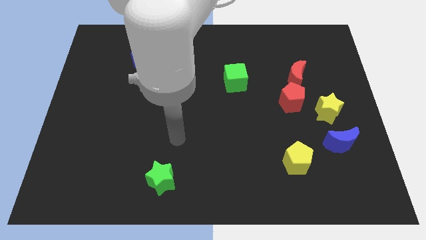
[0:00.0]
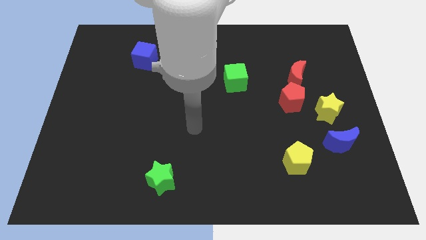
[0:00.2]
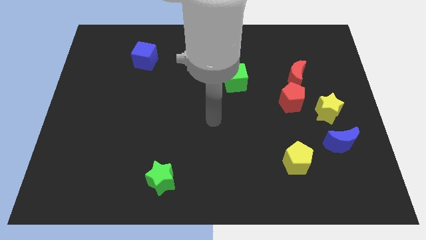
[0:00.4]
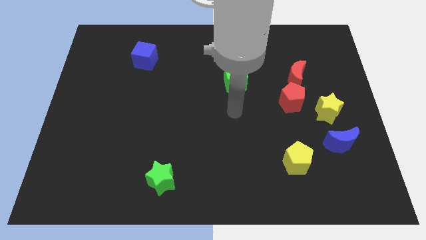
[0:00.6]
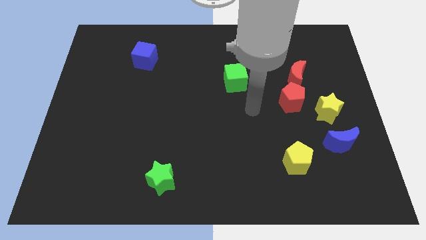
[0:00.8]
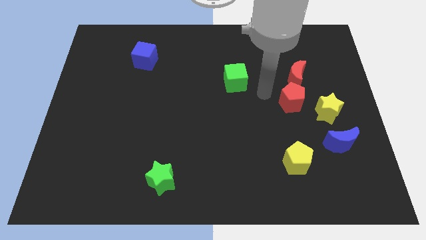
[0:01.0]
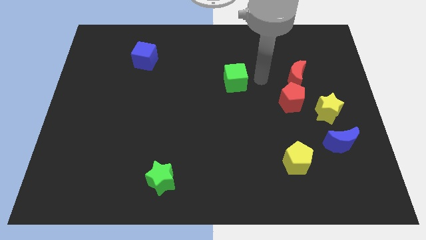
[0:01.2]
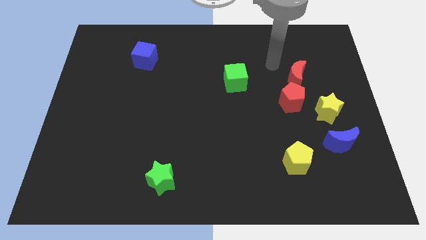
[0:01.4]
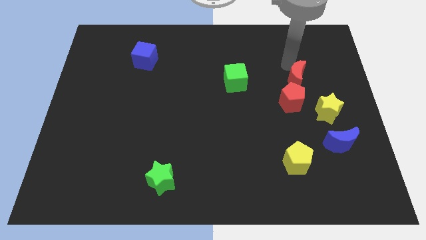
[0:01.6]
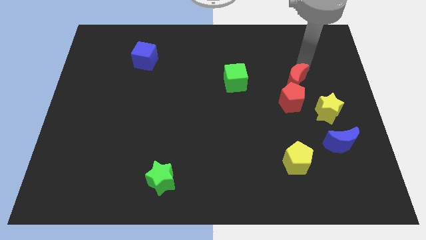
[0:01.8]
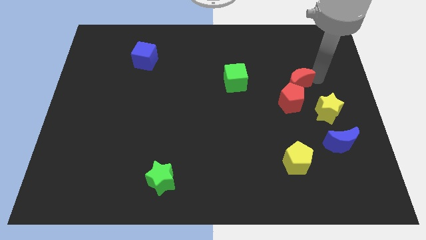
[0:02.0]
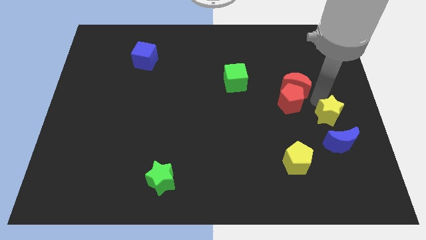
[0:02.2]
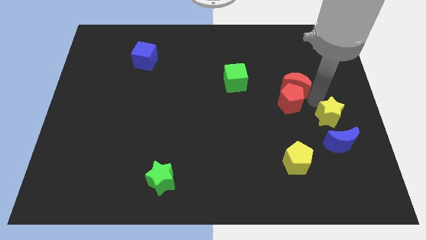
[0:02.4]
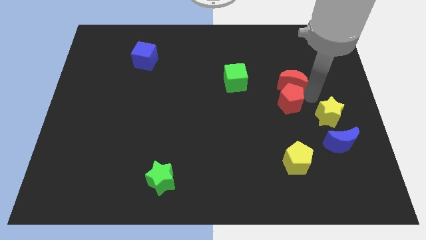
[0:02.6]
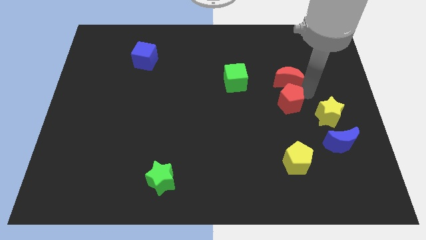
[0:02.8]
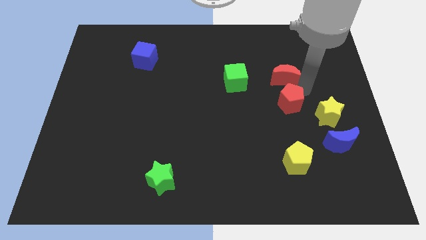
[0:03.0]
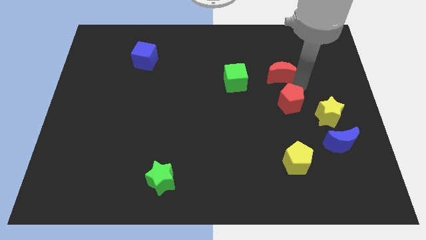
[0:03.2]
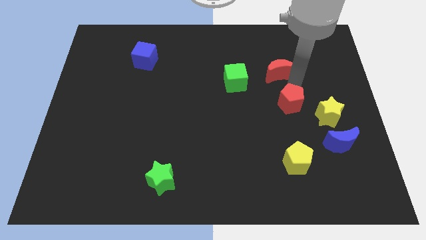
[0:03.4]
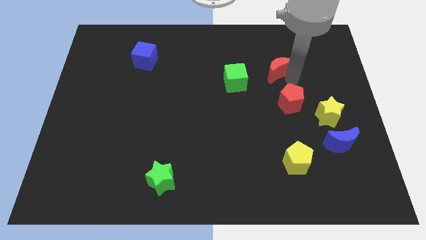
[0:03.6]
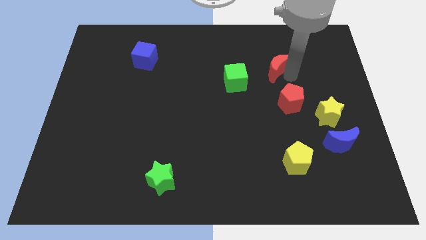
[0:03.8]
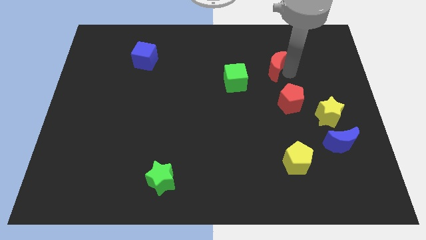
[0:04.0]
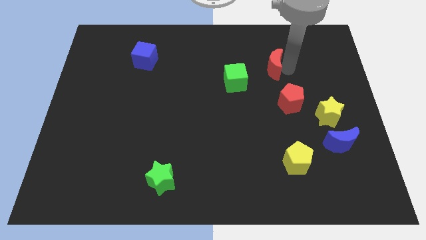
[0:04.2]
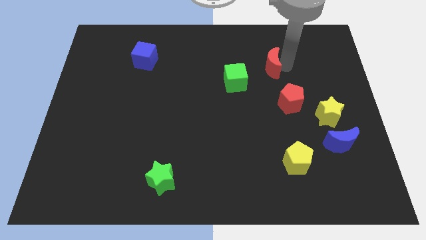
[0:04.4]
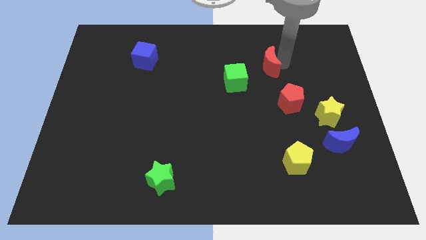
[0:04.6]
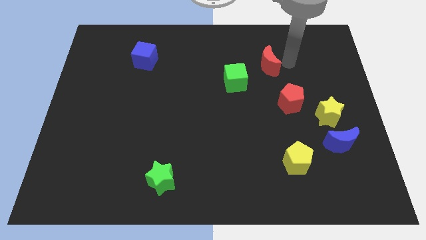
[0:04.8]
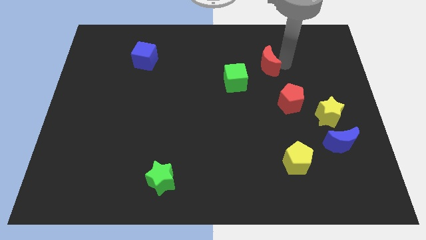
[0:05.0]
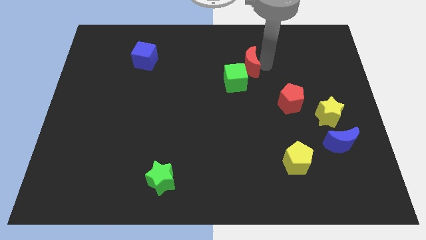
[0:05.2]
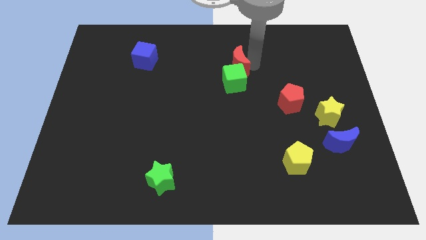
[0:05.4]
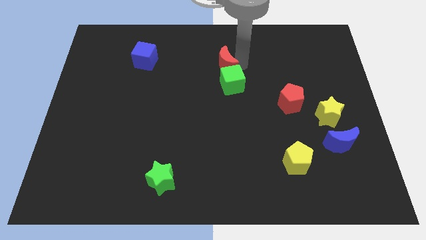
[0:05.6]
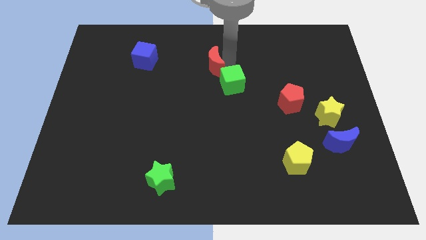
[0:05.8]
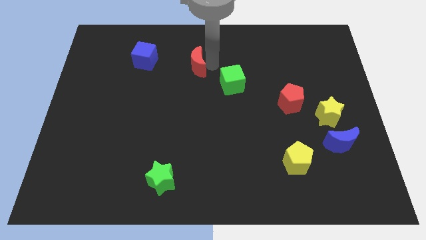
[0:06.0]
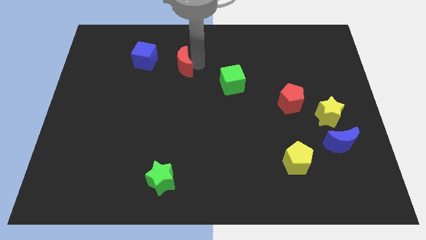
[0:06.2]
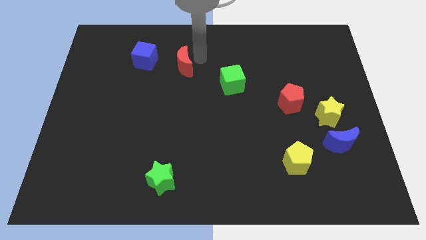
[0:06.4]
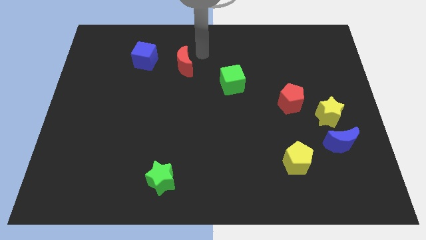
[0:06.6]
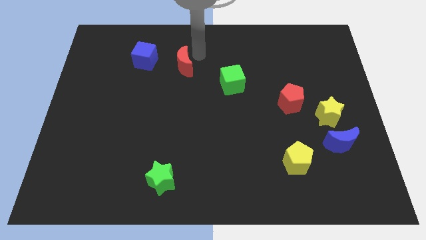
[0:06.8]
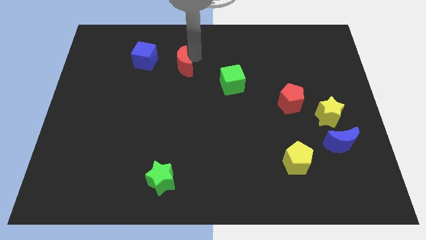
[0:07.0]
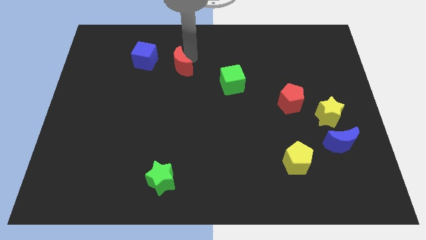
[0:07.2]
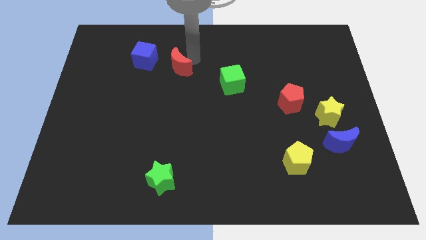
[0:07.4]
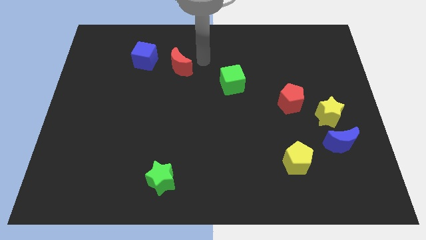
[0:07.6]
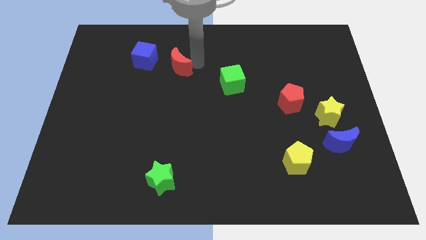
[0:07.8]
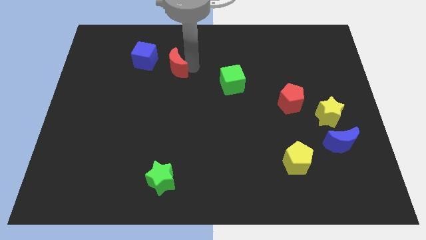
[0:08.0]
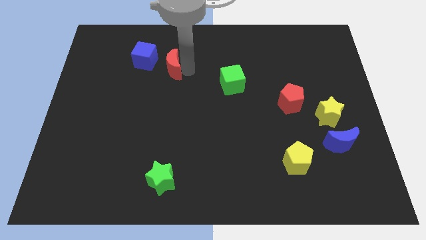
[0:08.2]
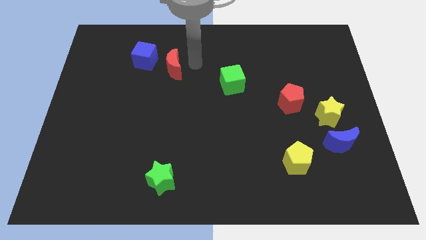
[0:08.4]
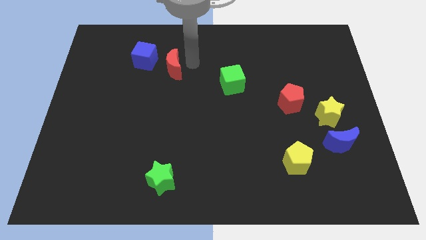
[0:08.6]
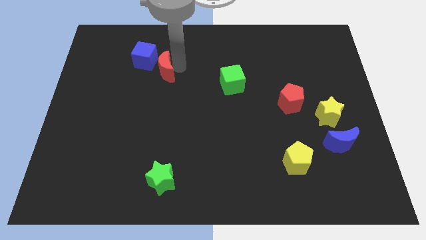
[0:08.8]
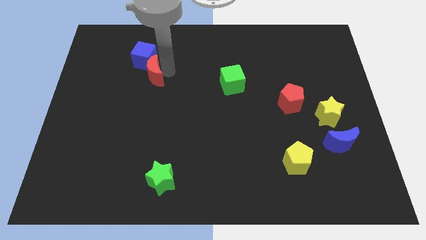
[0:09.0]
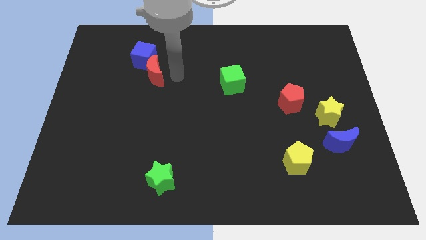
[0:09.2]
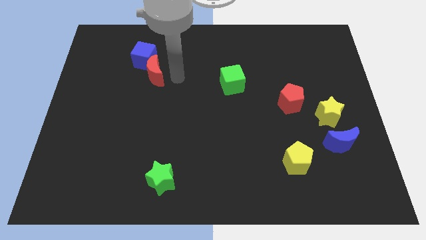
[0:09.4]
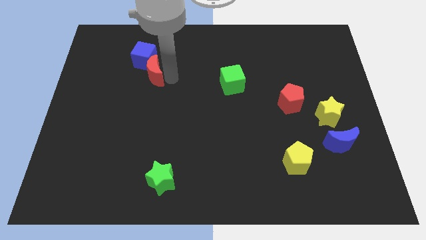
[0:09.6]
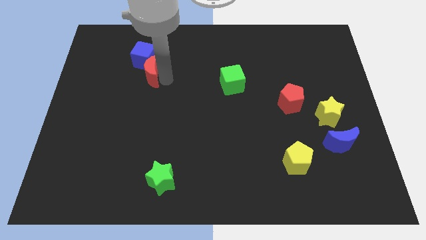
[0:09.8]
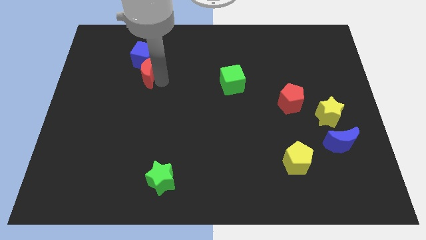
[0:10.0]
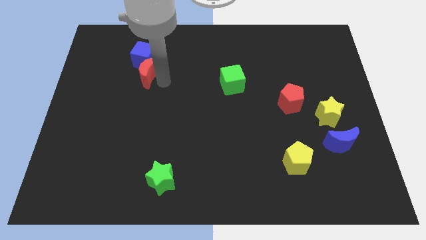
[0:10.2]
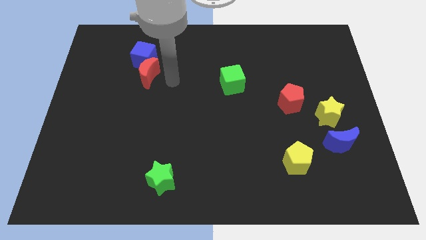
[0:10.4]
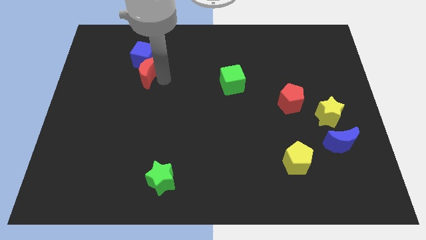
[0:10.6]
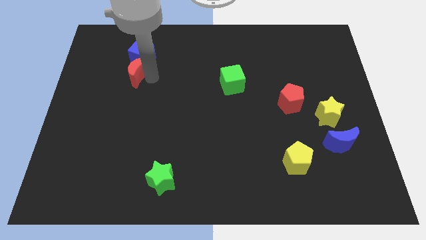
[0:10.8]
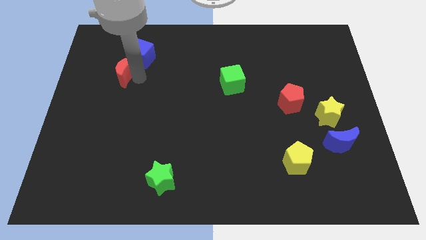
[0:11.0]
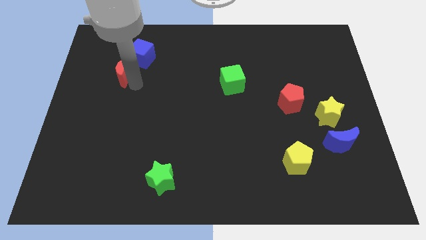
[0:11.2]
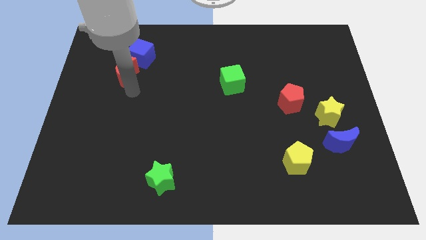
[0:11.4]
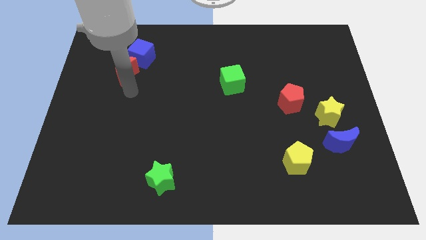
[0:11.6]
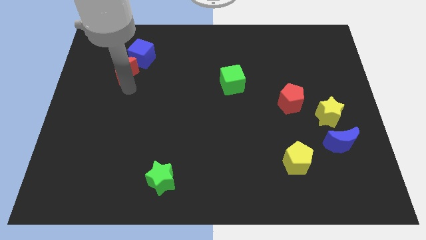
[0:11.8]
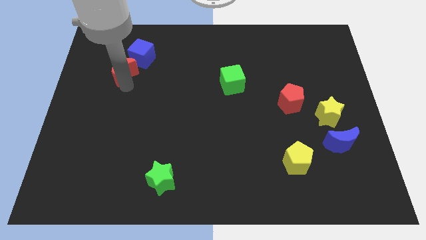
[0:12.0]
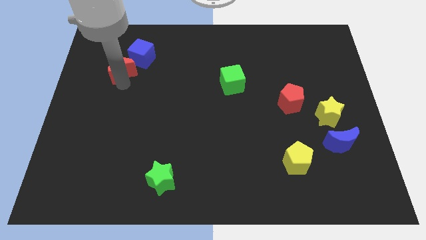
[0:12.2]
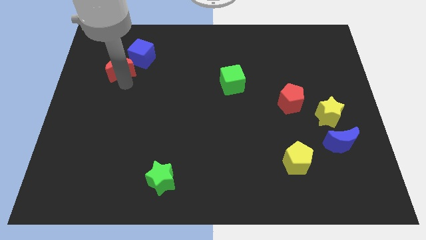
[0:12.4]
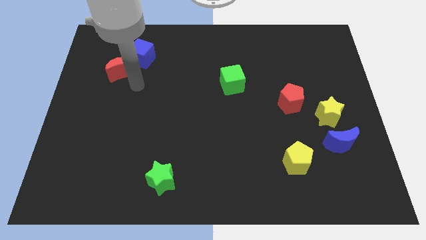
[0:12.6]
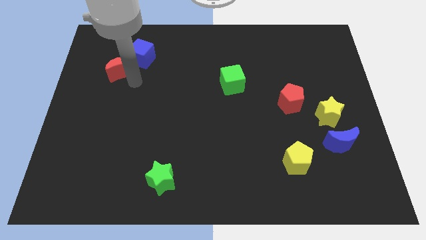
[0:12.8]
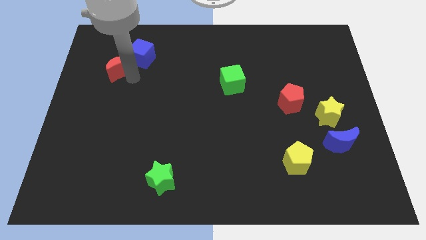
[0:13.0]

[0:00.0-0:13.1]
put the red moon left of the blue cube

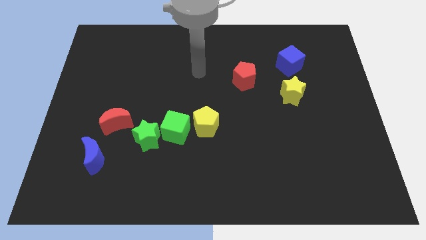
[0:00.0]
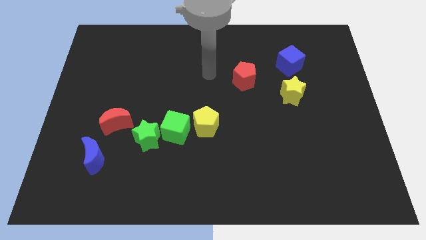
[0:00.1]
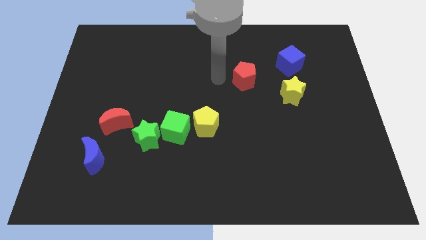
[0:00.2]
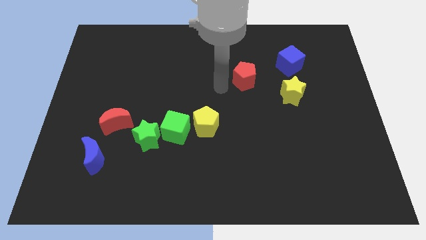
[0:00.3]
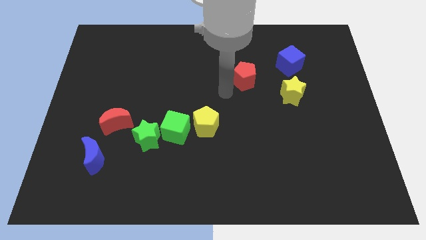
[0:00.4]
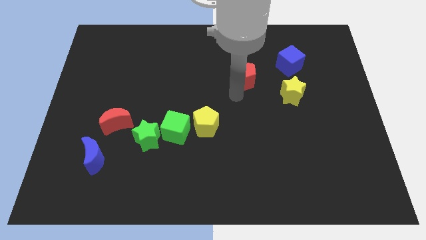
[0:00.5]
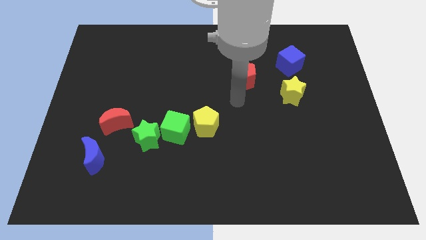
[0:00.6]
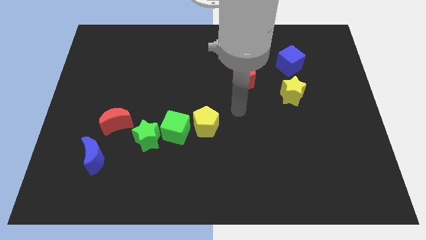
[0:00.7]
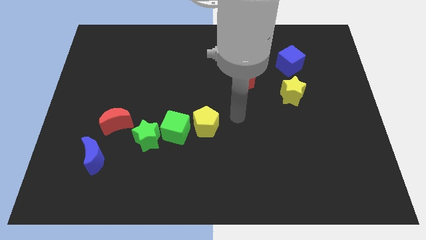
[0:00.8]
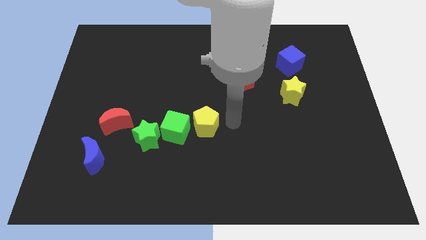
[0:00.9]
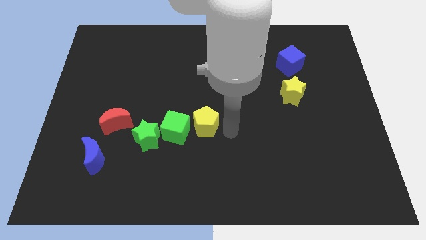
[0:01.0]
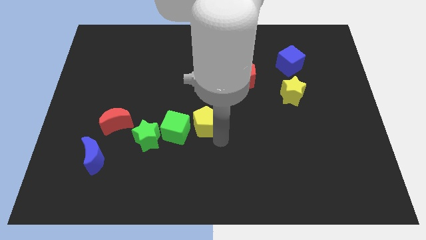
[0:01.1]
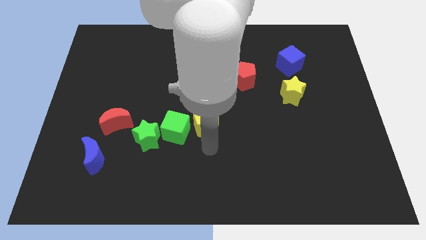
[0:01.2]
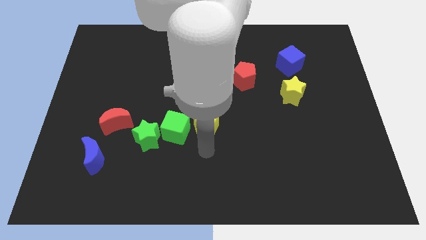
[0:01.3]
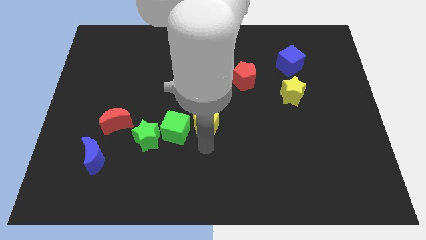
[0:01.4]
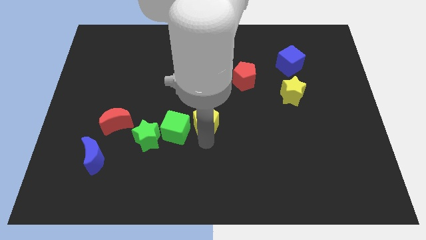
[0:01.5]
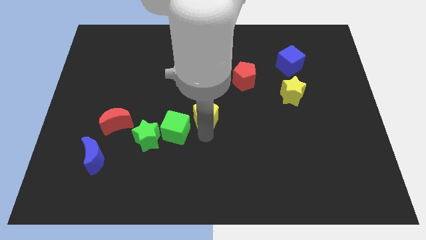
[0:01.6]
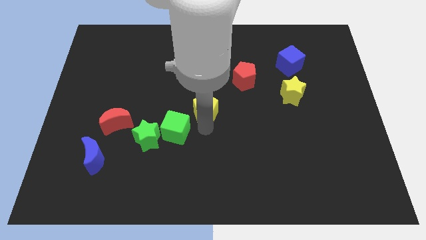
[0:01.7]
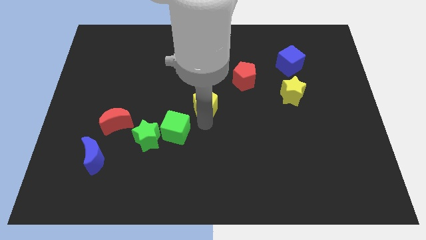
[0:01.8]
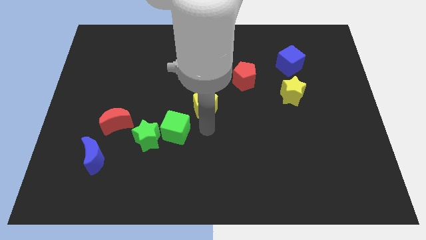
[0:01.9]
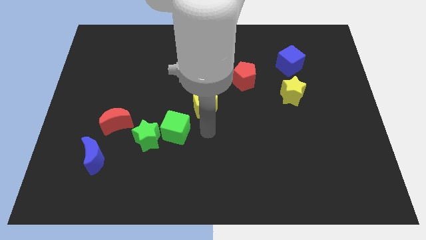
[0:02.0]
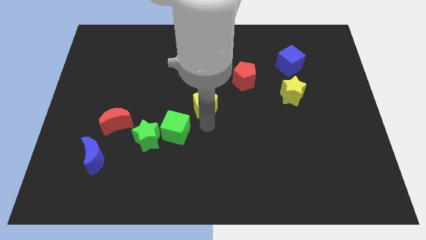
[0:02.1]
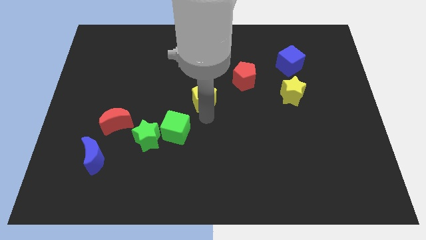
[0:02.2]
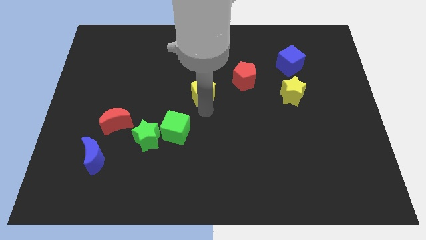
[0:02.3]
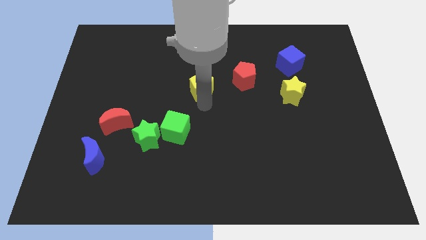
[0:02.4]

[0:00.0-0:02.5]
put the yellow pentagon just left of the red pentagon
